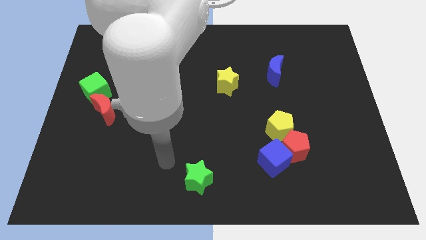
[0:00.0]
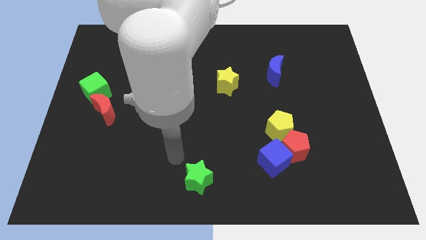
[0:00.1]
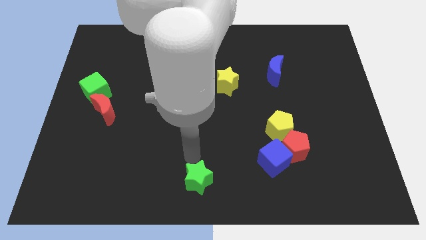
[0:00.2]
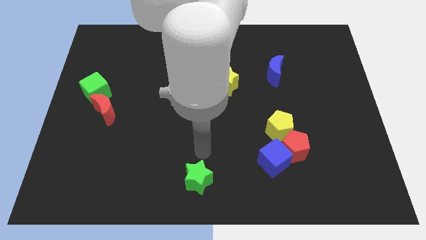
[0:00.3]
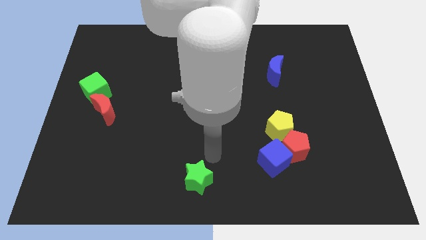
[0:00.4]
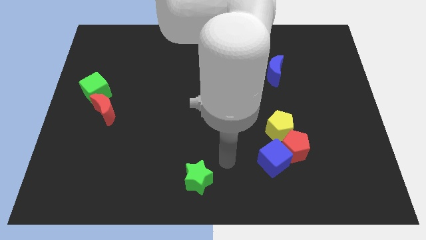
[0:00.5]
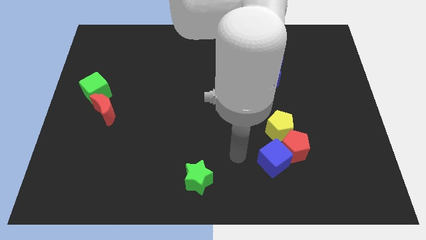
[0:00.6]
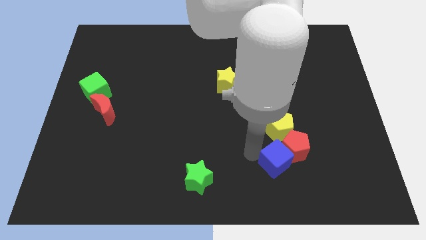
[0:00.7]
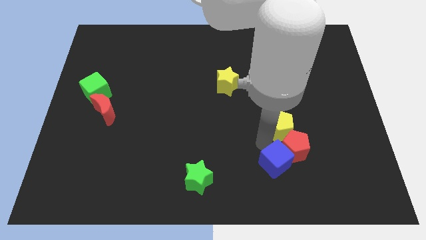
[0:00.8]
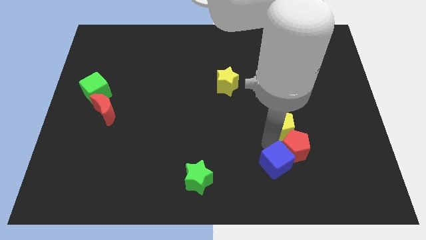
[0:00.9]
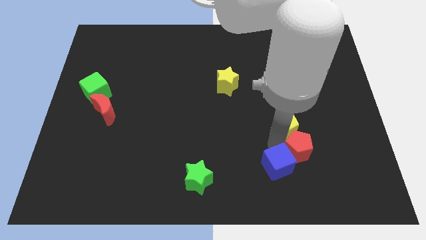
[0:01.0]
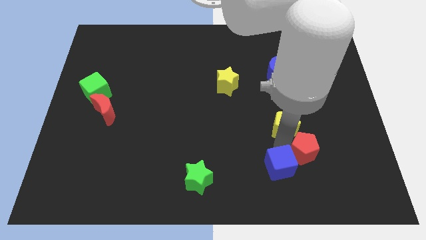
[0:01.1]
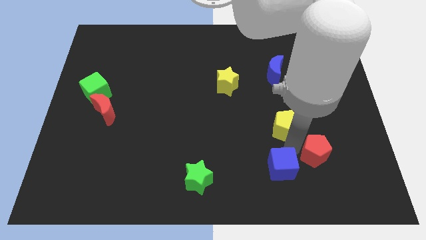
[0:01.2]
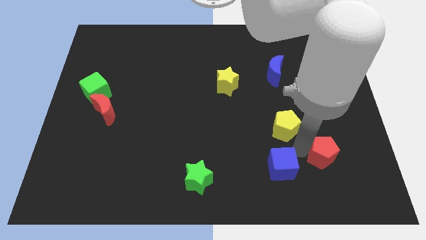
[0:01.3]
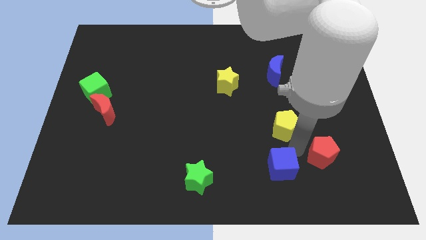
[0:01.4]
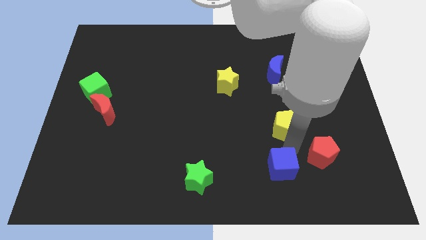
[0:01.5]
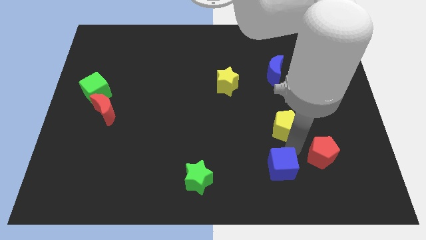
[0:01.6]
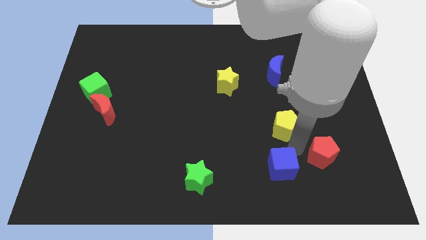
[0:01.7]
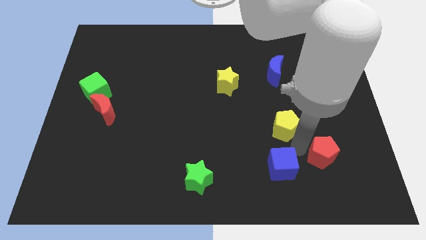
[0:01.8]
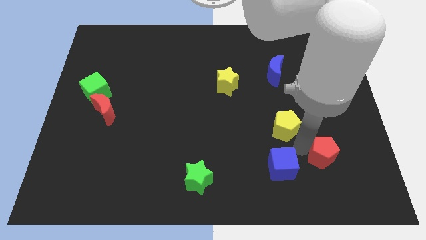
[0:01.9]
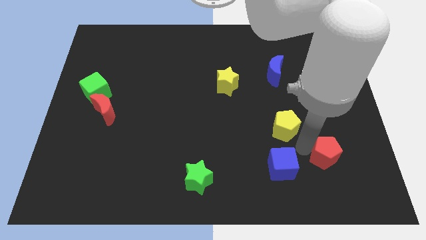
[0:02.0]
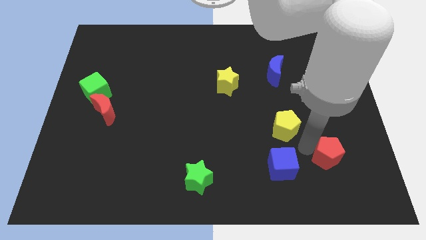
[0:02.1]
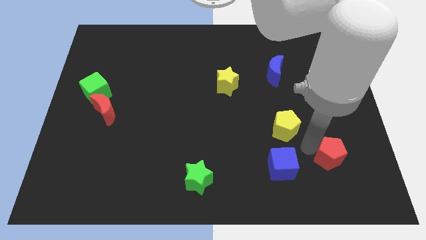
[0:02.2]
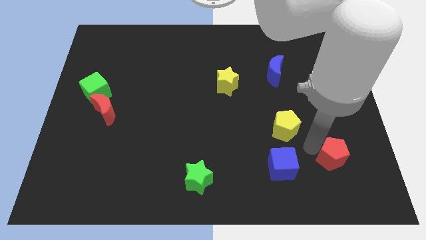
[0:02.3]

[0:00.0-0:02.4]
separate the red pentagon from the blue cube and yellow pentagon

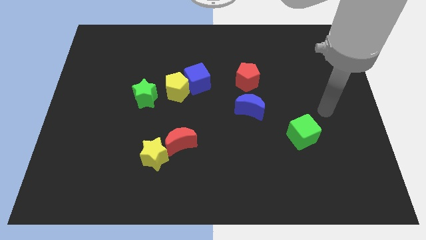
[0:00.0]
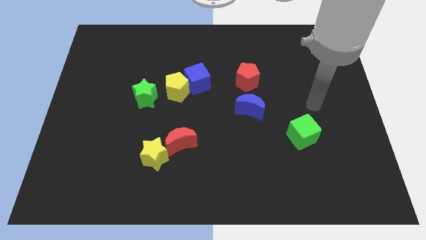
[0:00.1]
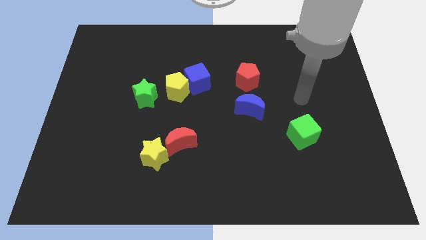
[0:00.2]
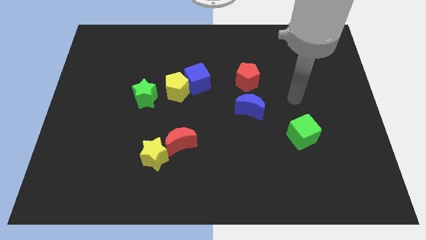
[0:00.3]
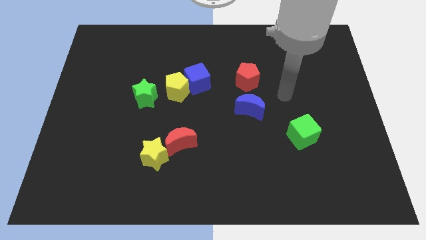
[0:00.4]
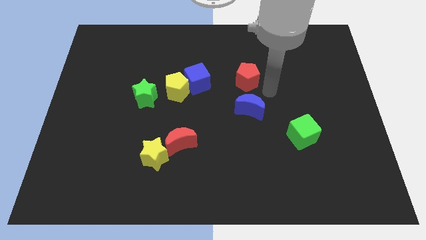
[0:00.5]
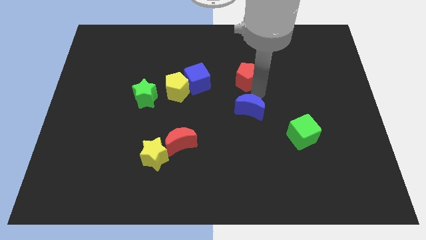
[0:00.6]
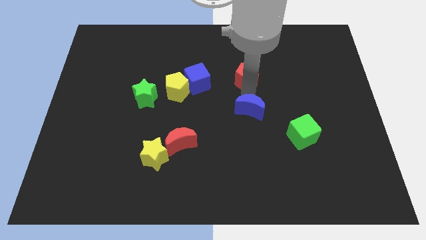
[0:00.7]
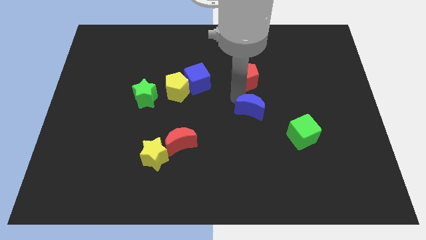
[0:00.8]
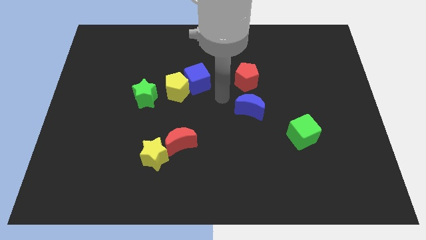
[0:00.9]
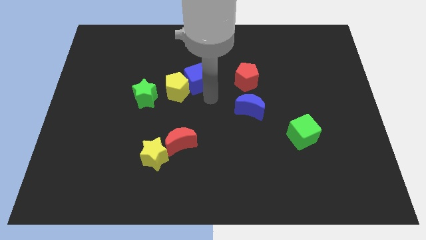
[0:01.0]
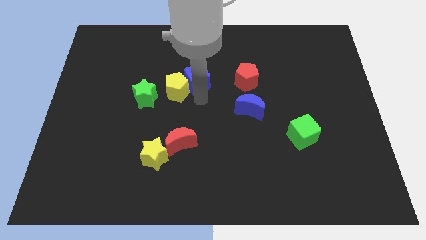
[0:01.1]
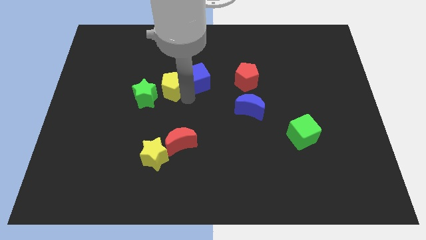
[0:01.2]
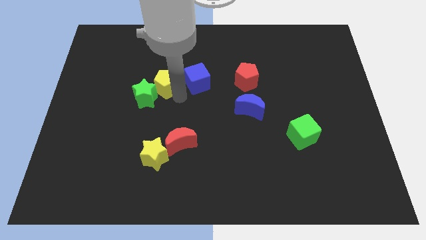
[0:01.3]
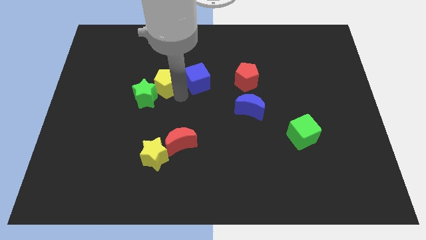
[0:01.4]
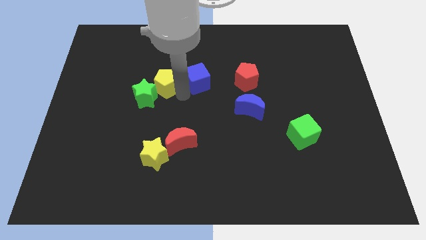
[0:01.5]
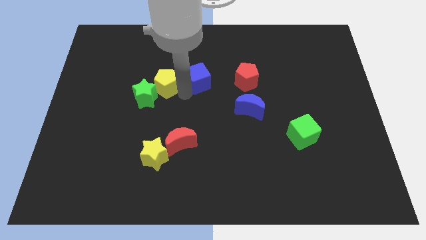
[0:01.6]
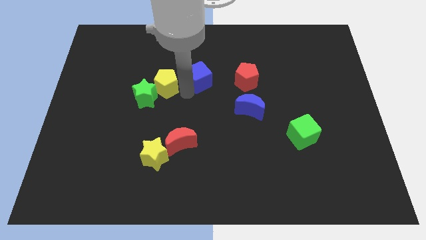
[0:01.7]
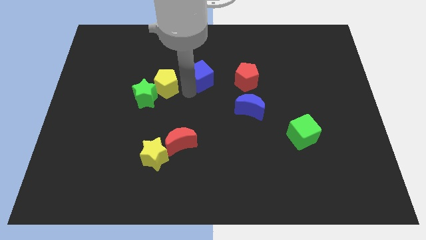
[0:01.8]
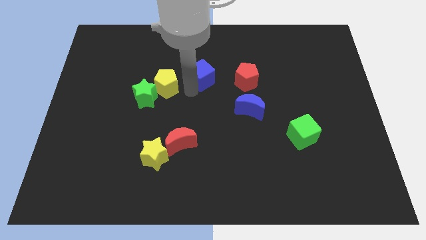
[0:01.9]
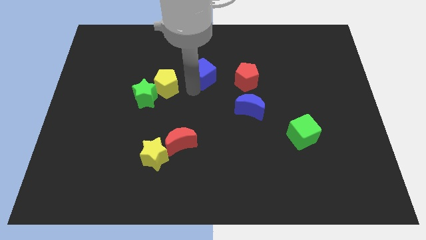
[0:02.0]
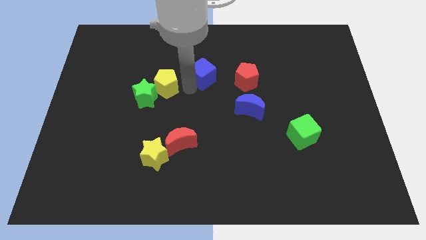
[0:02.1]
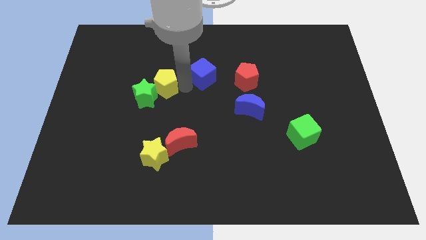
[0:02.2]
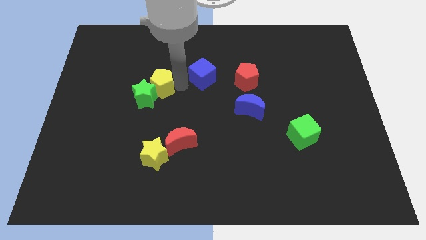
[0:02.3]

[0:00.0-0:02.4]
separate the blue cube from the yellow pentagon

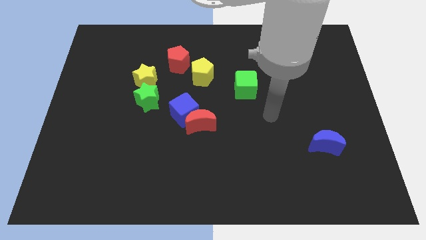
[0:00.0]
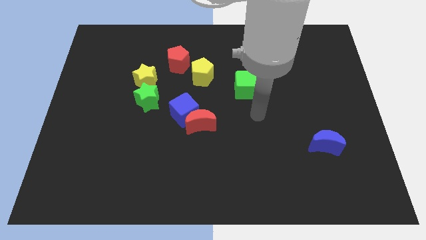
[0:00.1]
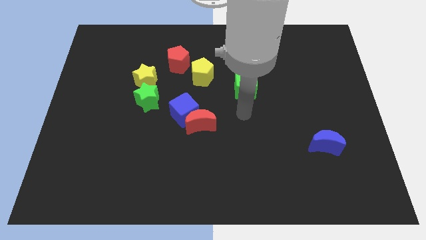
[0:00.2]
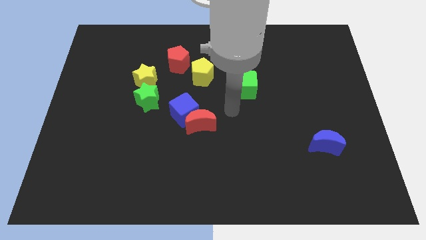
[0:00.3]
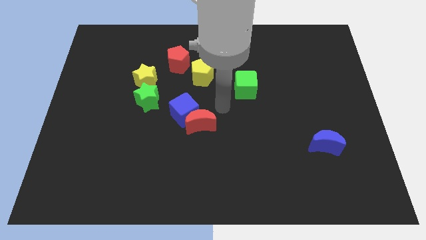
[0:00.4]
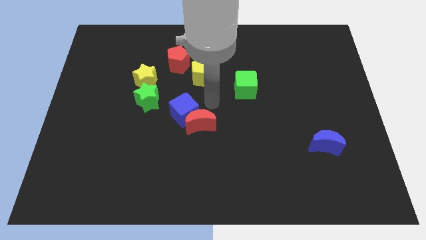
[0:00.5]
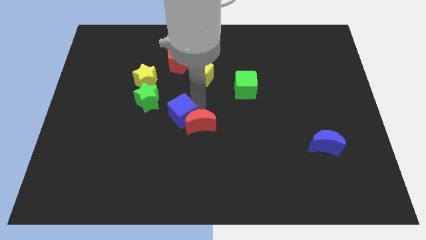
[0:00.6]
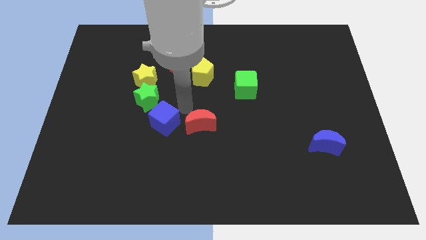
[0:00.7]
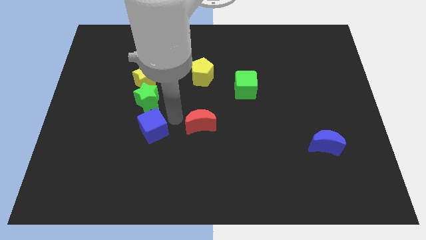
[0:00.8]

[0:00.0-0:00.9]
pull the red moon apart from the blue cube

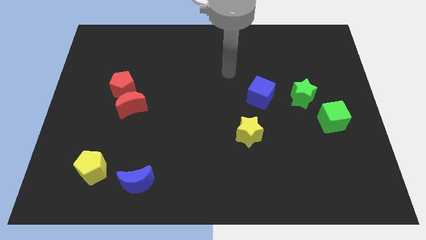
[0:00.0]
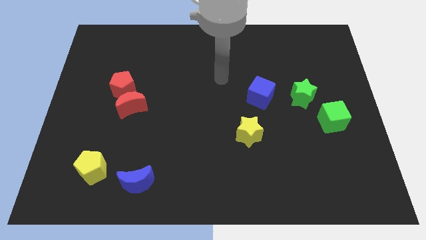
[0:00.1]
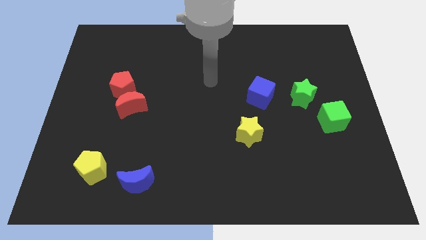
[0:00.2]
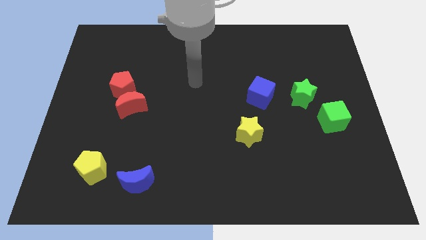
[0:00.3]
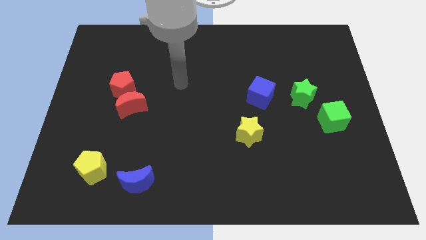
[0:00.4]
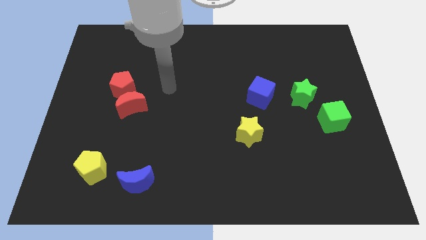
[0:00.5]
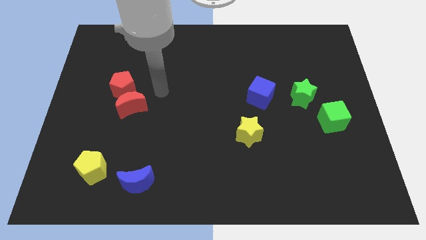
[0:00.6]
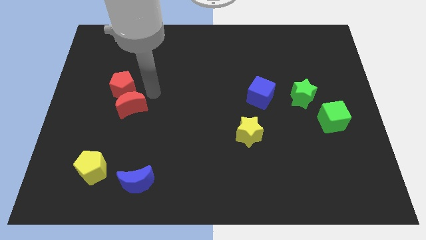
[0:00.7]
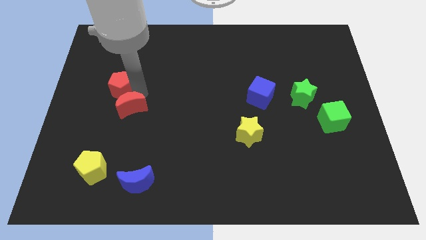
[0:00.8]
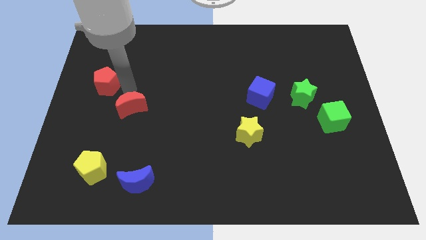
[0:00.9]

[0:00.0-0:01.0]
separate the red moon from the red pentagon

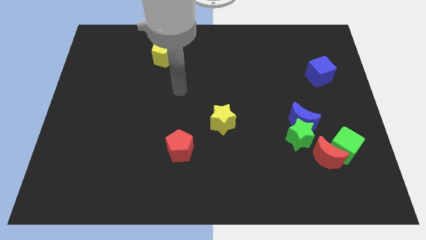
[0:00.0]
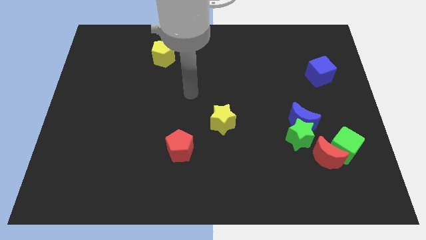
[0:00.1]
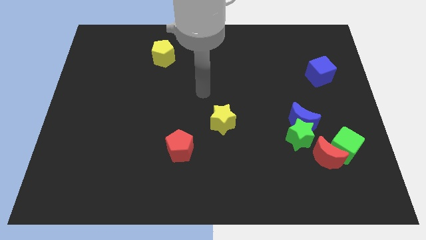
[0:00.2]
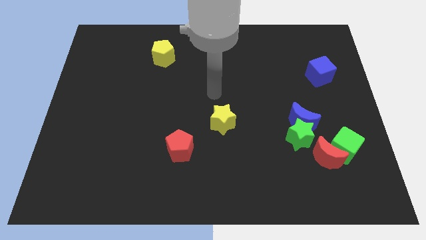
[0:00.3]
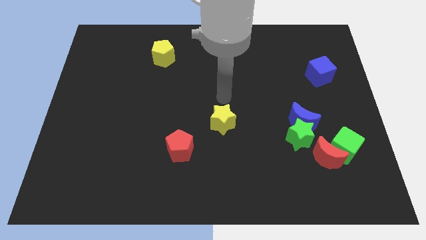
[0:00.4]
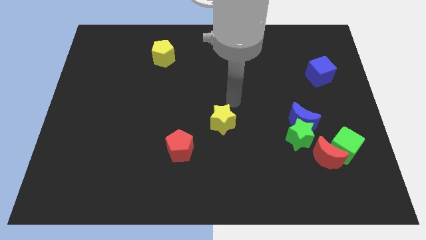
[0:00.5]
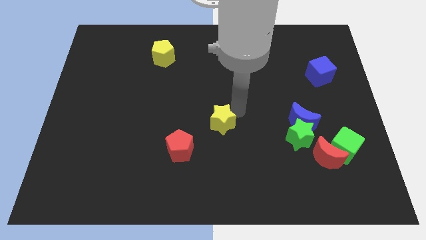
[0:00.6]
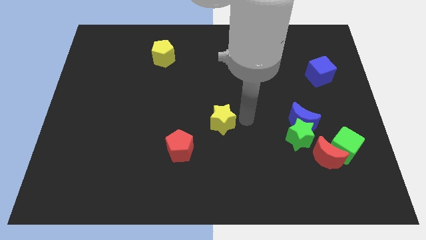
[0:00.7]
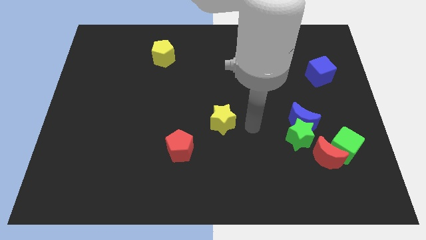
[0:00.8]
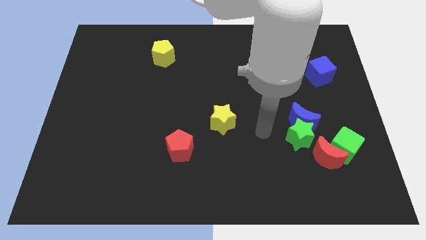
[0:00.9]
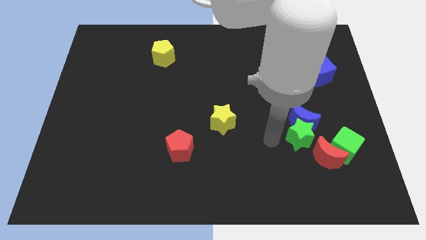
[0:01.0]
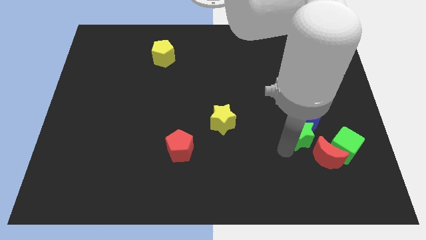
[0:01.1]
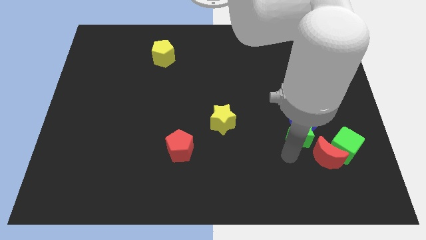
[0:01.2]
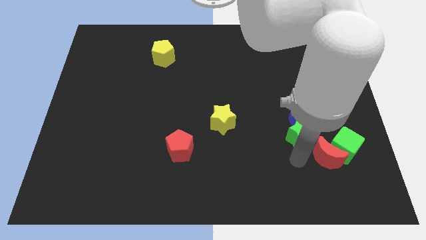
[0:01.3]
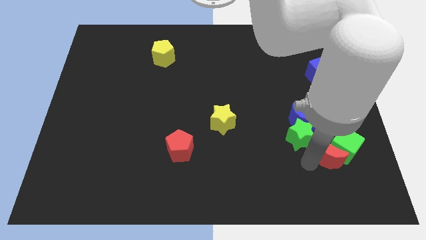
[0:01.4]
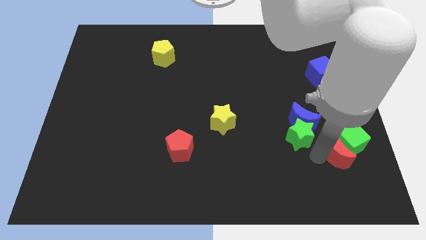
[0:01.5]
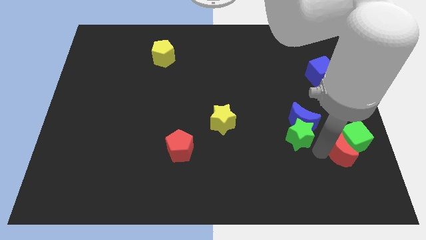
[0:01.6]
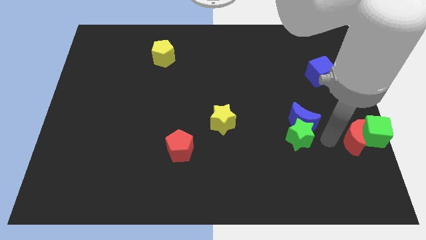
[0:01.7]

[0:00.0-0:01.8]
pull the green star apart from the group of blocks

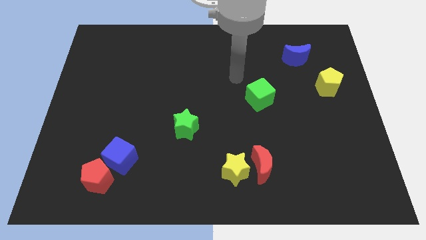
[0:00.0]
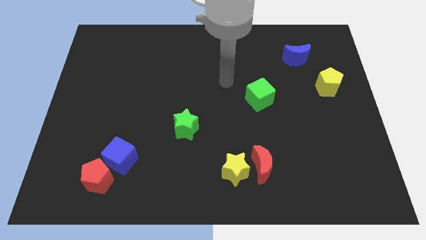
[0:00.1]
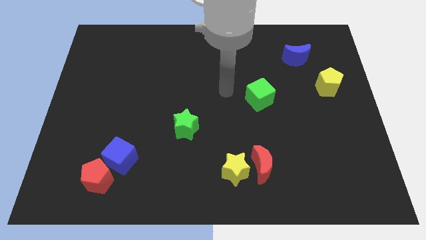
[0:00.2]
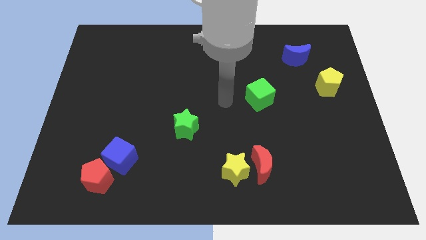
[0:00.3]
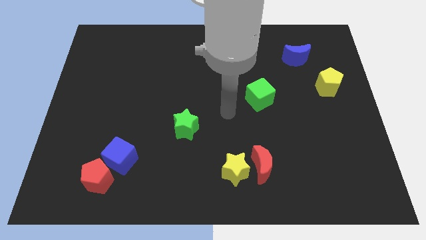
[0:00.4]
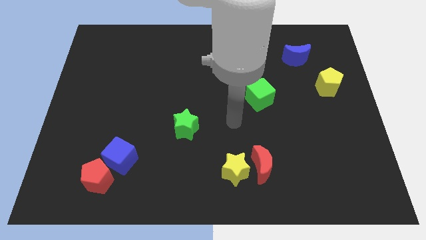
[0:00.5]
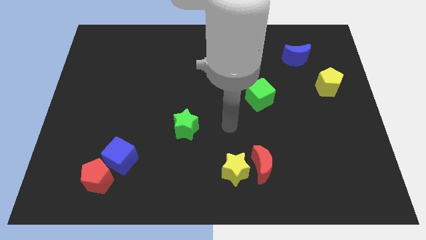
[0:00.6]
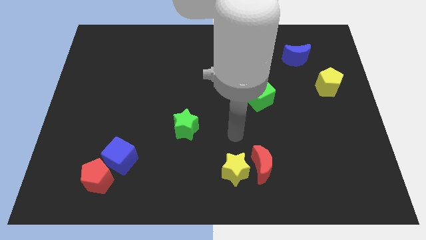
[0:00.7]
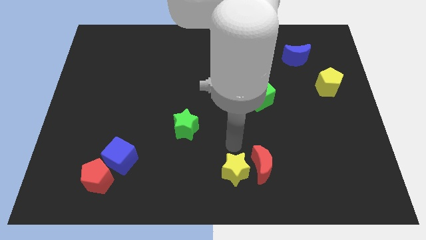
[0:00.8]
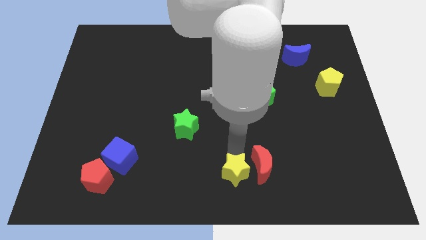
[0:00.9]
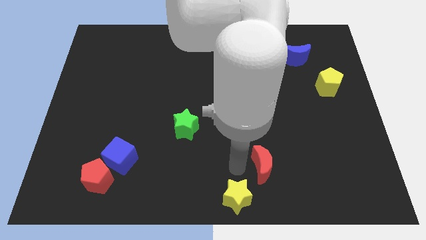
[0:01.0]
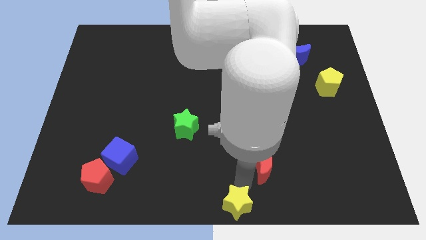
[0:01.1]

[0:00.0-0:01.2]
pull the red moon apart from the yellow star
